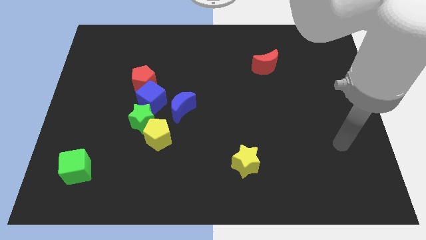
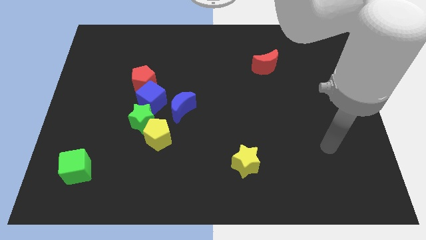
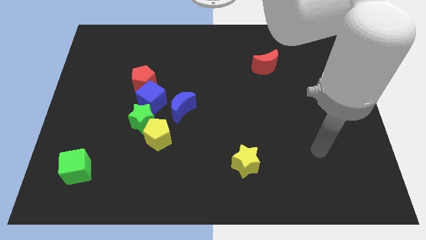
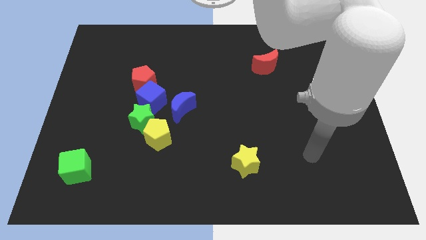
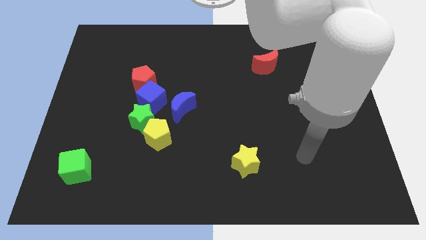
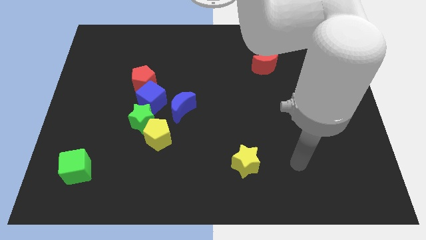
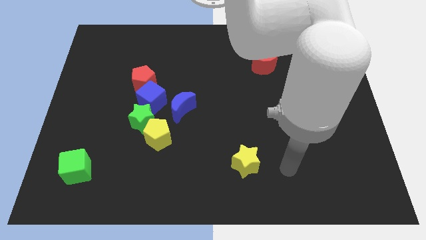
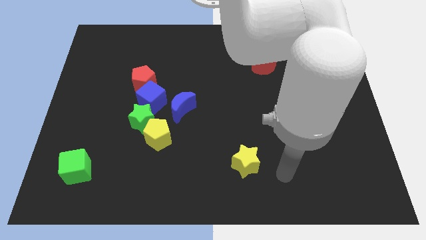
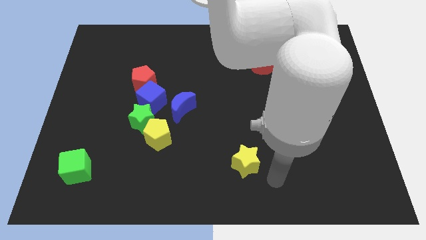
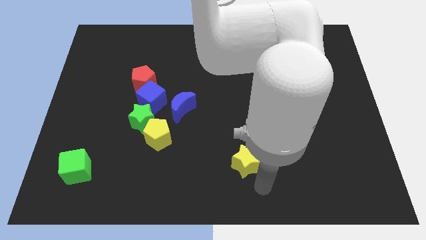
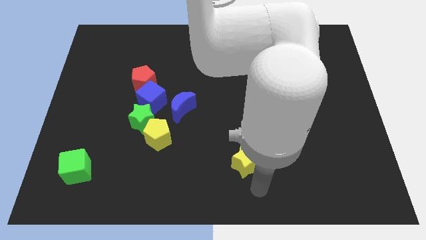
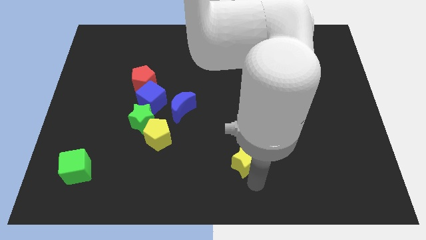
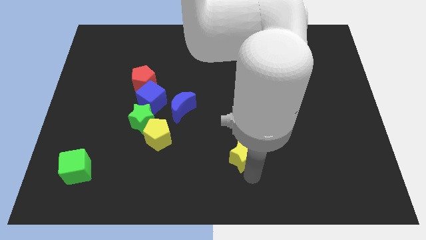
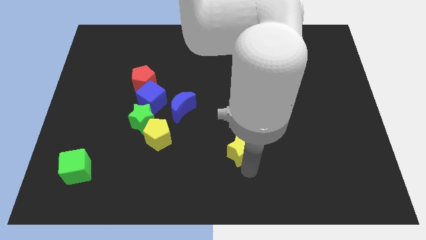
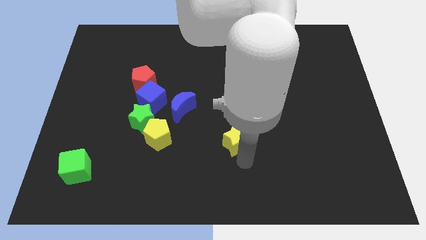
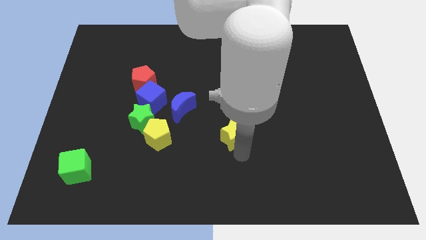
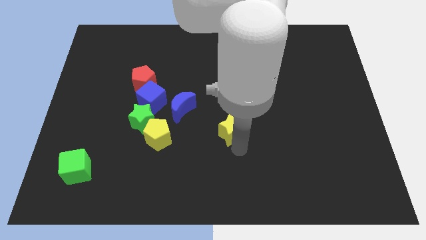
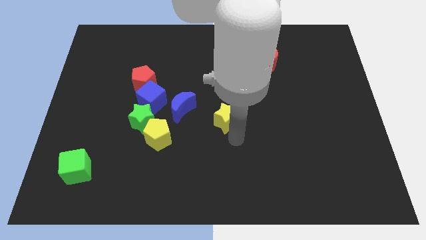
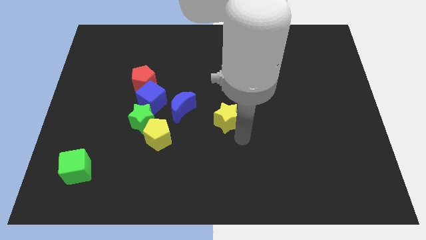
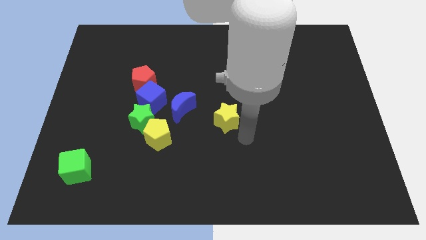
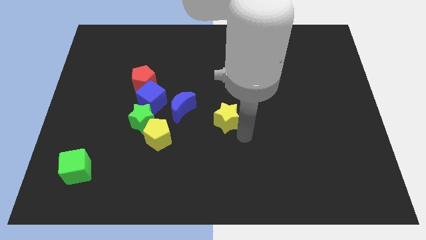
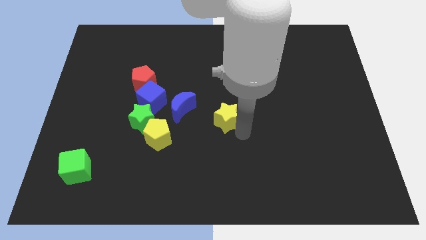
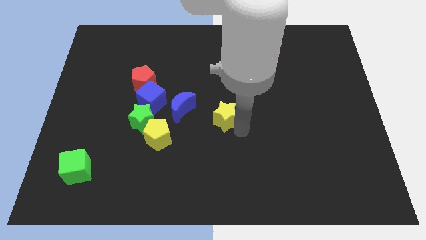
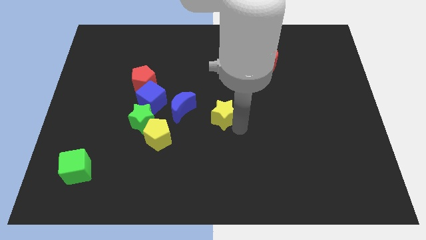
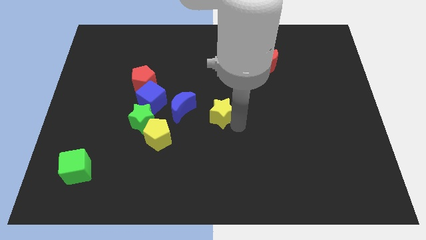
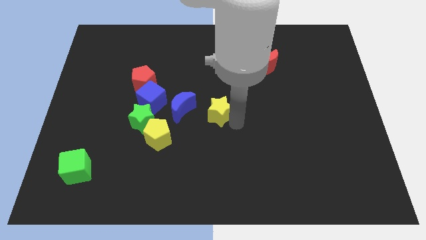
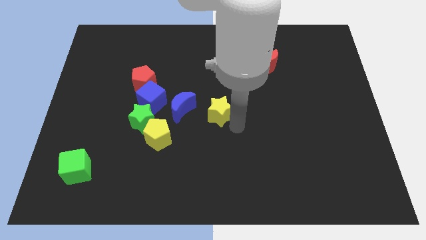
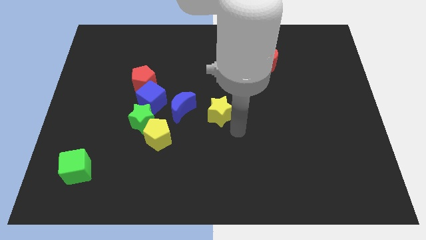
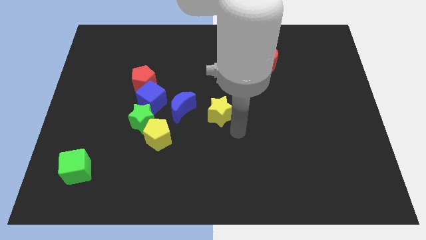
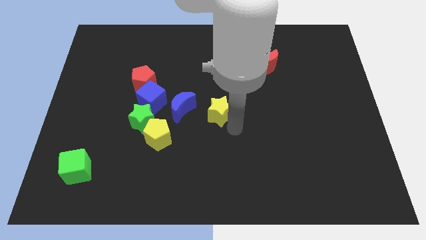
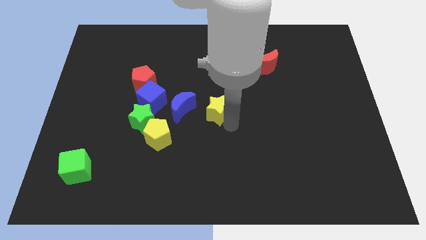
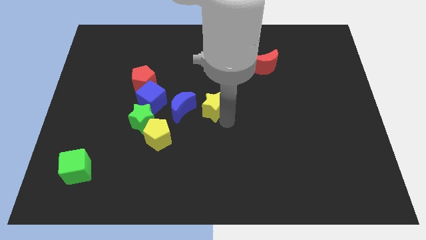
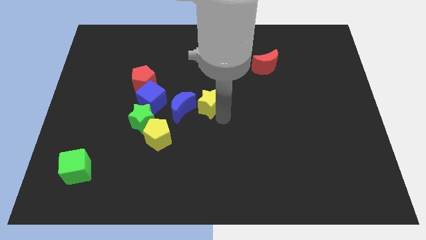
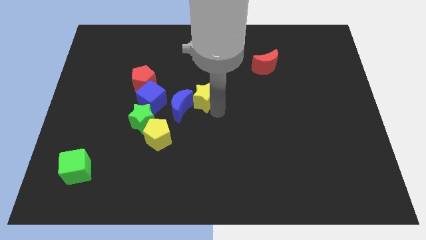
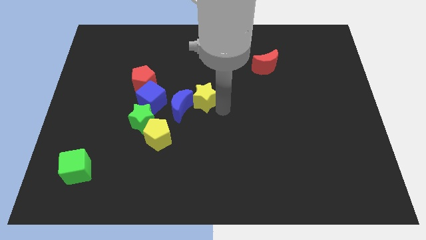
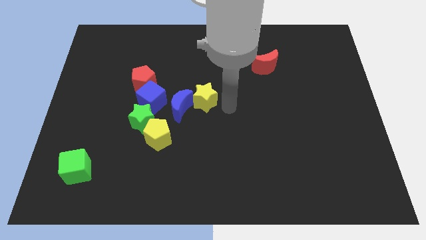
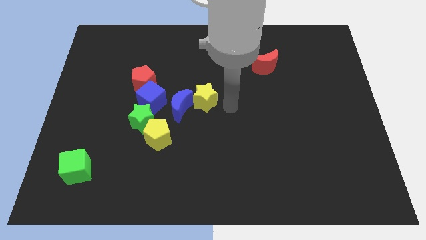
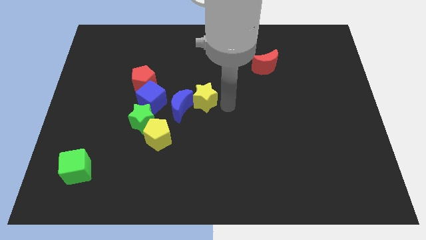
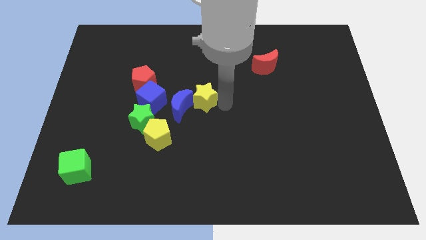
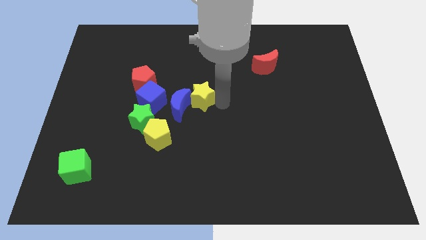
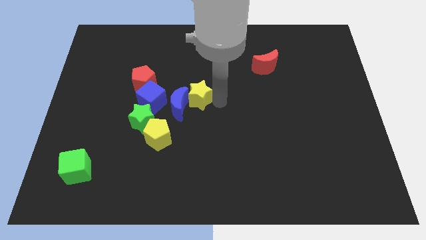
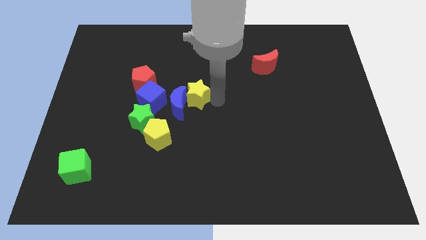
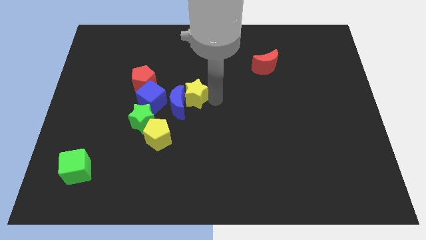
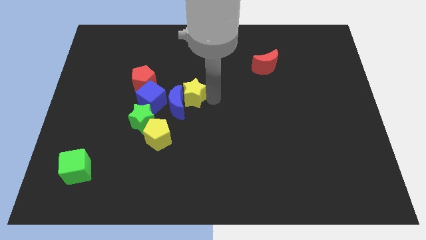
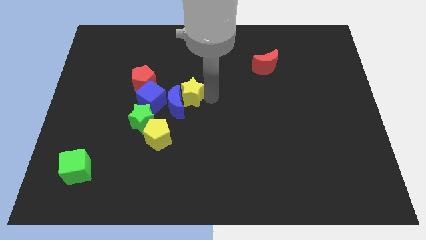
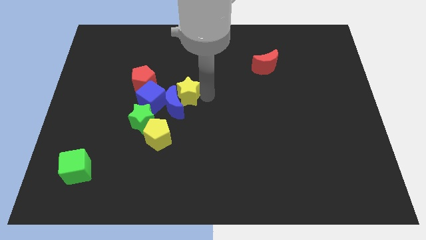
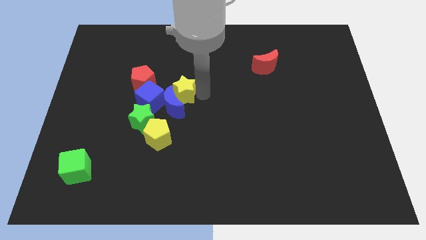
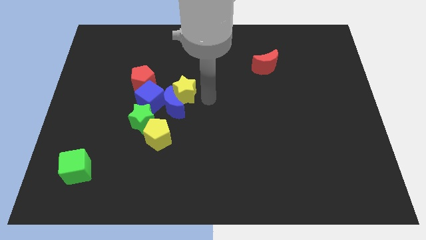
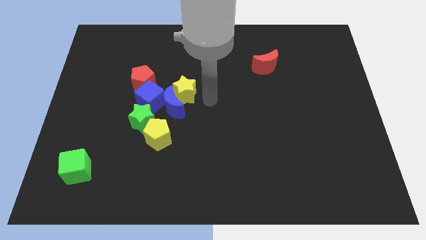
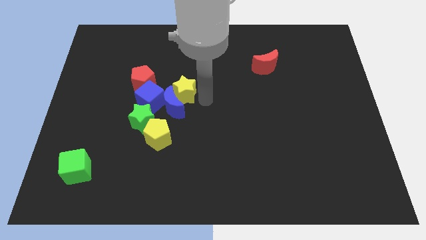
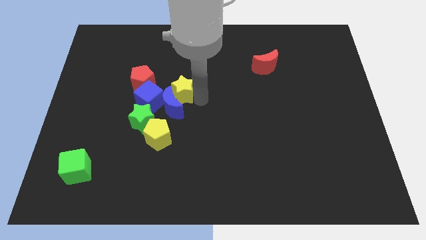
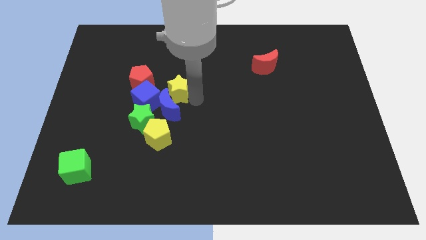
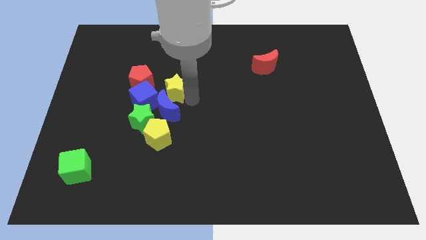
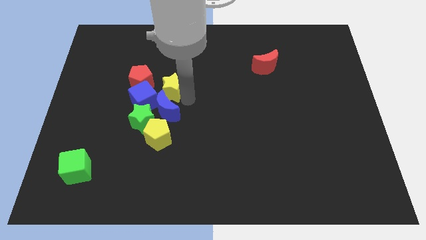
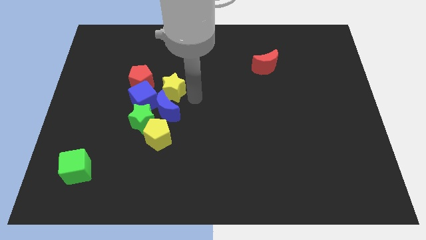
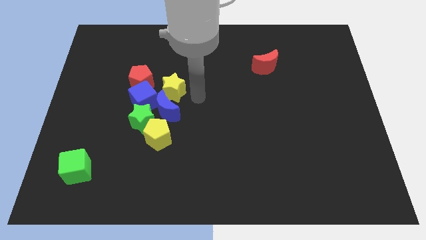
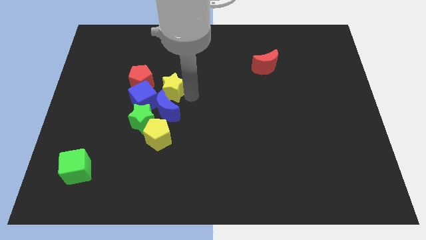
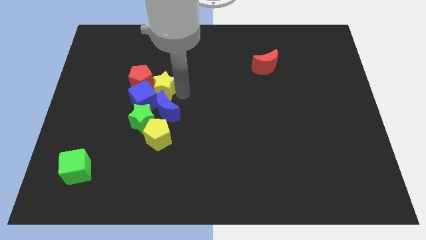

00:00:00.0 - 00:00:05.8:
slide the yellow star close to the red pentagon

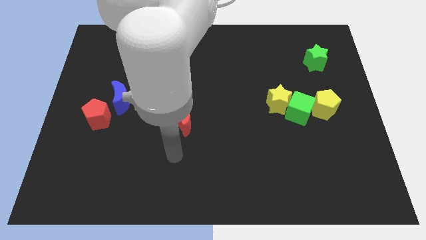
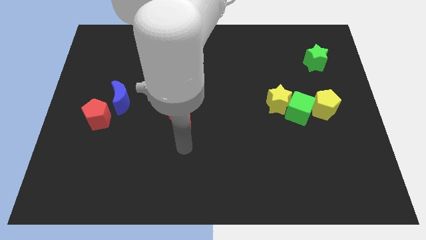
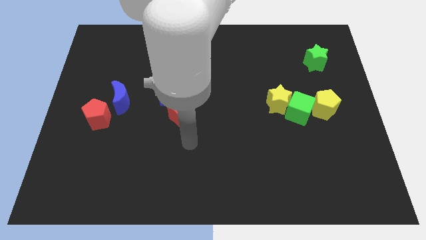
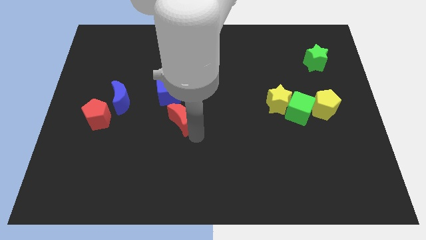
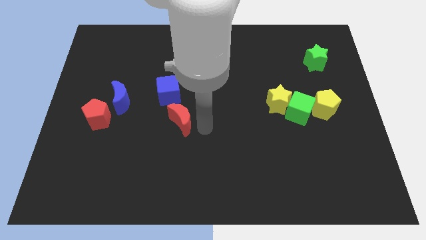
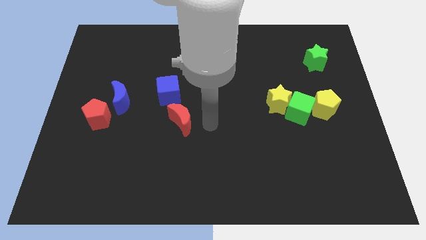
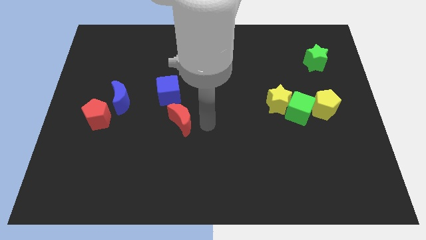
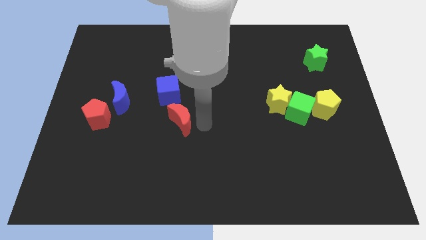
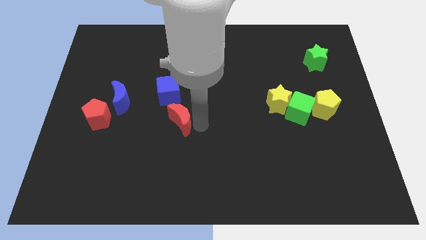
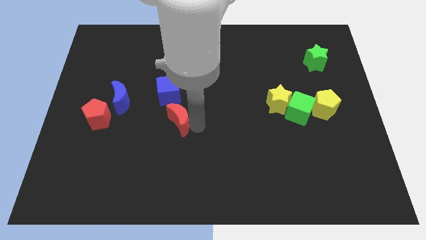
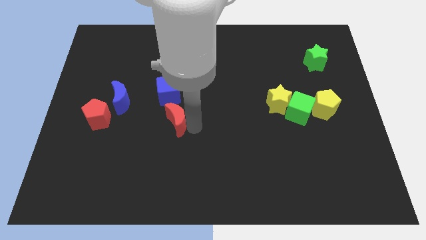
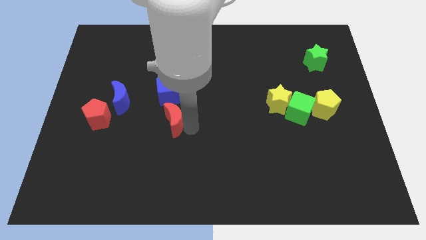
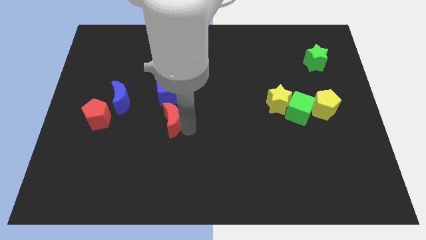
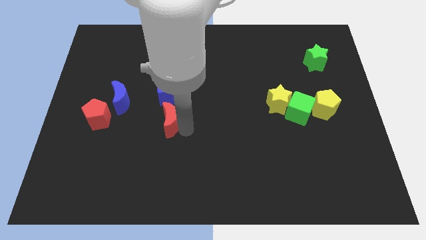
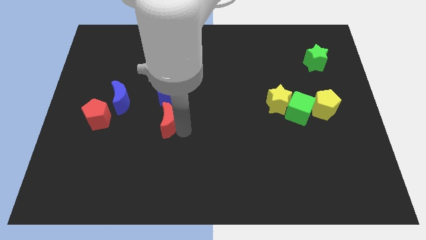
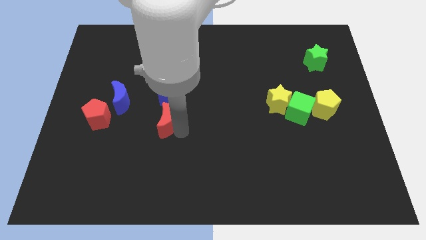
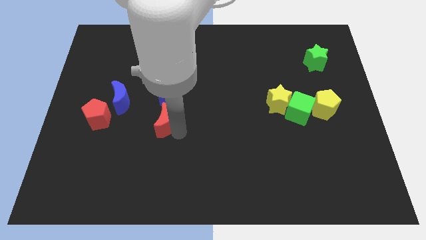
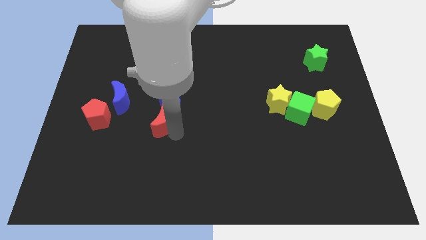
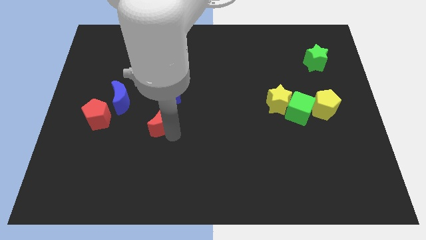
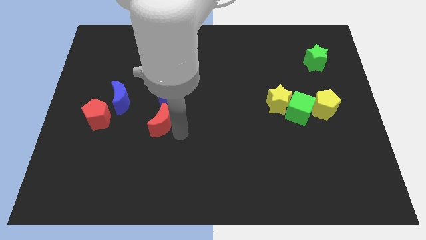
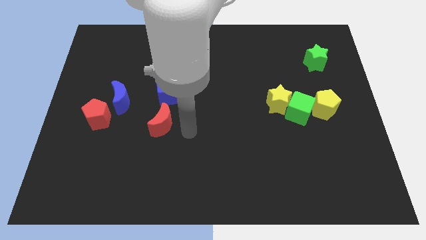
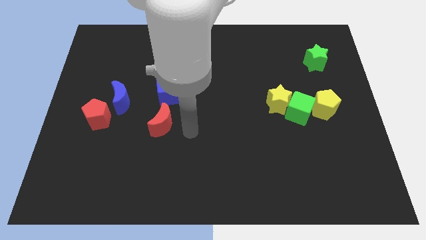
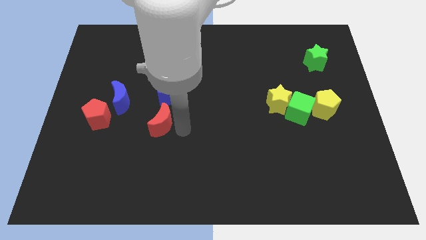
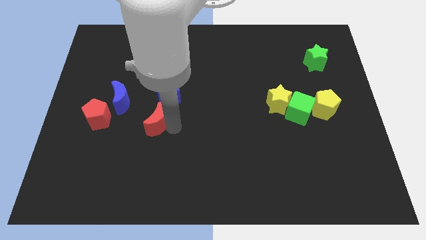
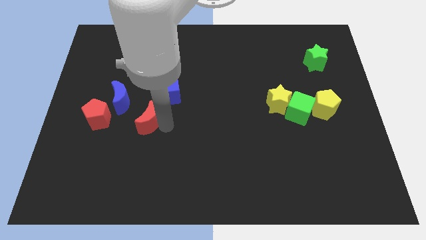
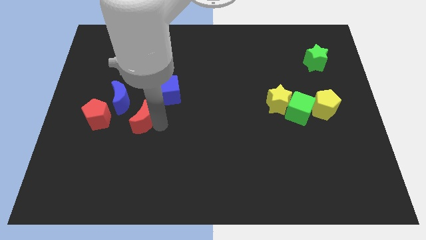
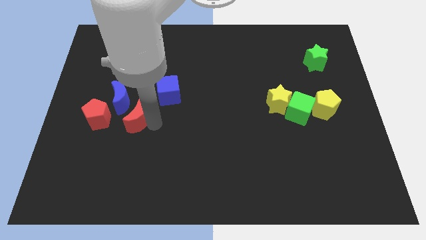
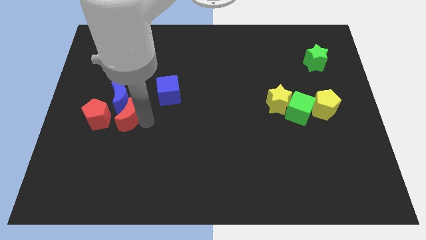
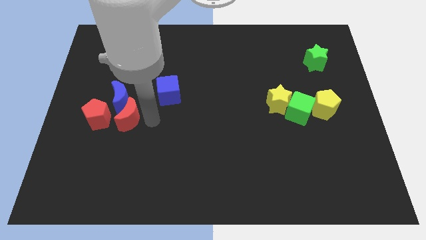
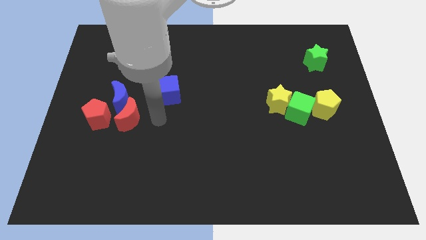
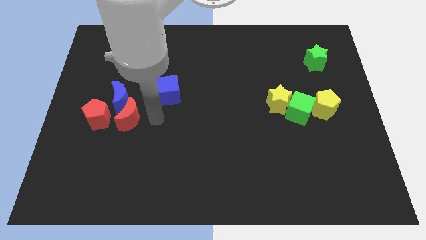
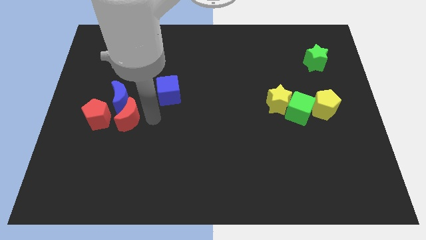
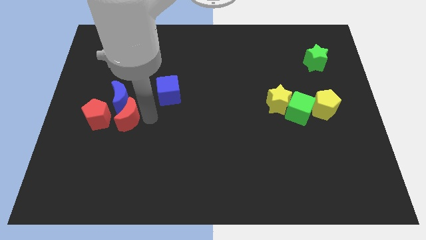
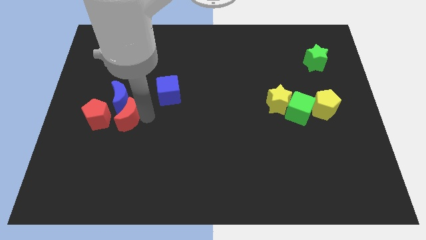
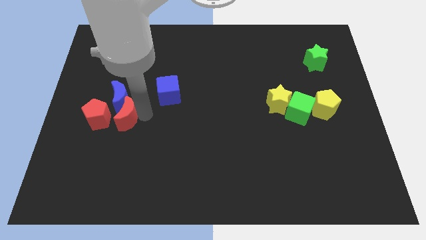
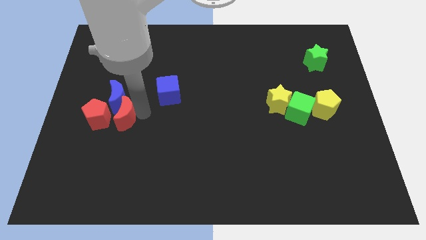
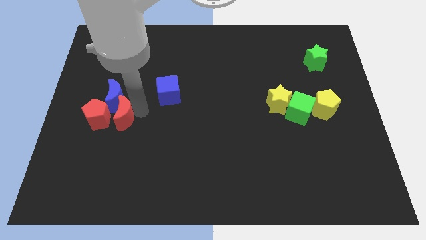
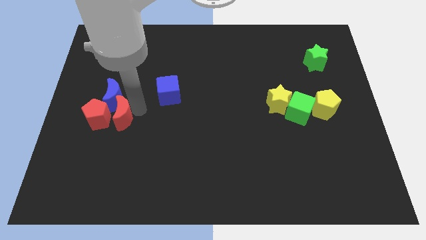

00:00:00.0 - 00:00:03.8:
put the red moon close to the red pentagon
